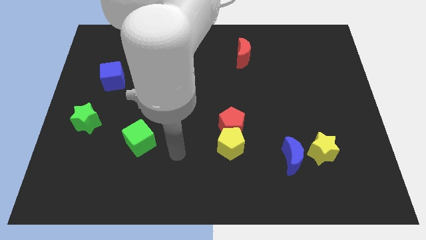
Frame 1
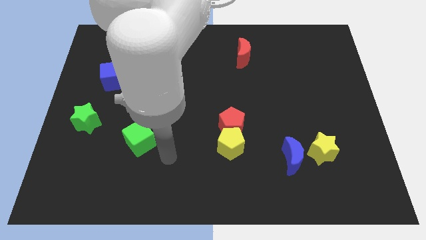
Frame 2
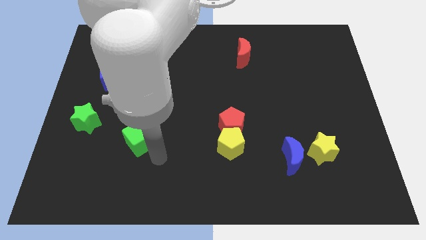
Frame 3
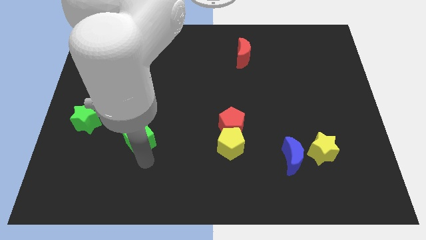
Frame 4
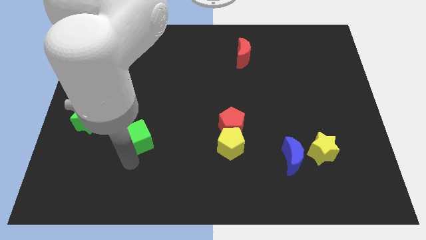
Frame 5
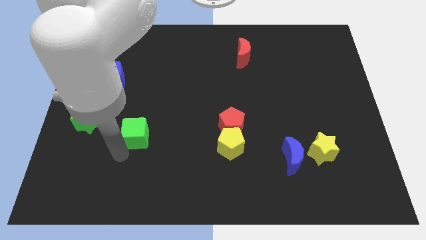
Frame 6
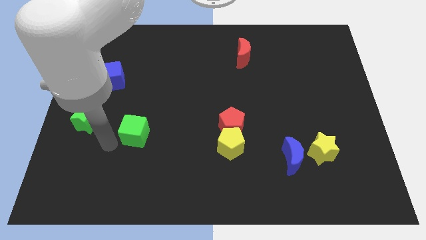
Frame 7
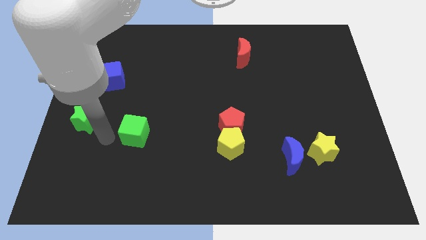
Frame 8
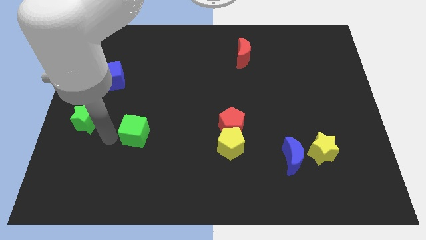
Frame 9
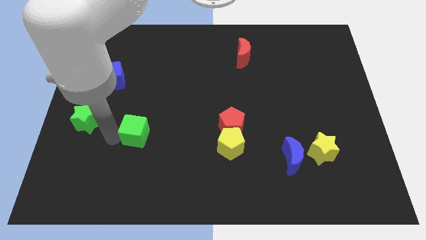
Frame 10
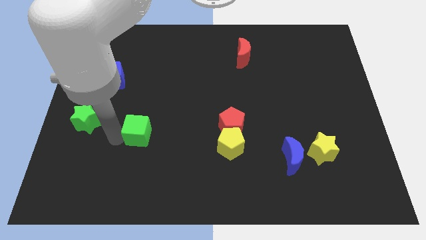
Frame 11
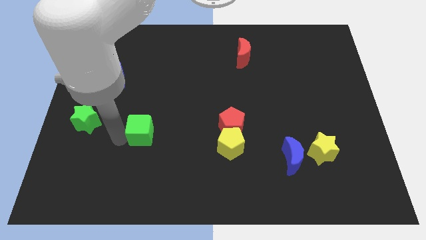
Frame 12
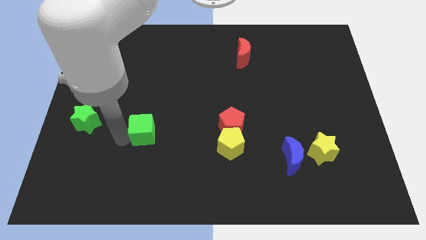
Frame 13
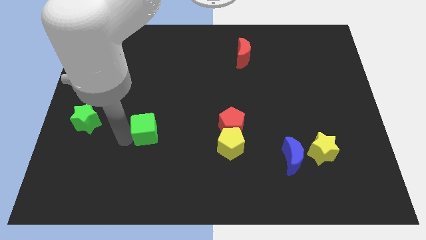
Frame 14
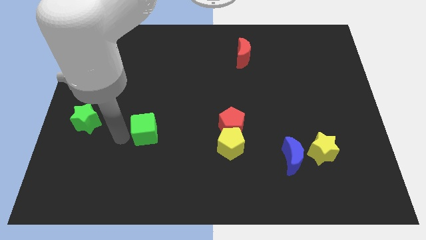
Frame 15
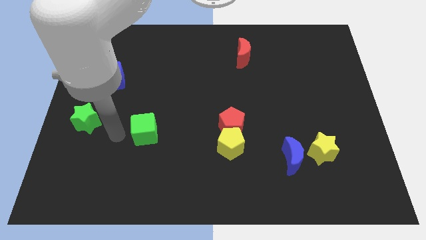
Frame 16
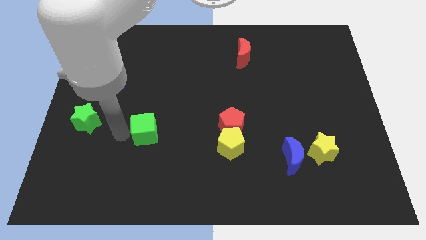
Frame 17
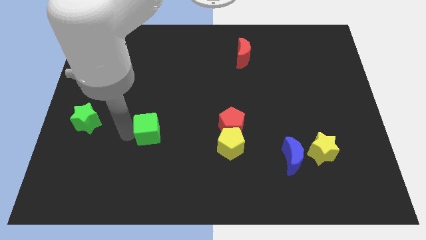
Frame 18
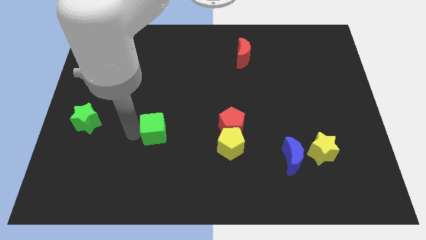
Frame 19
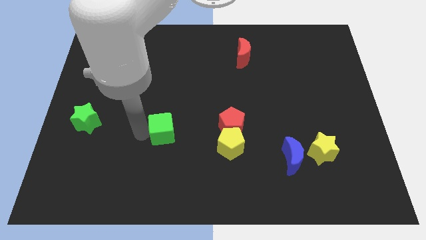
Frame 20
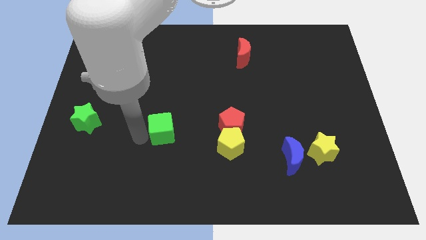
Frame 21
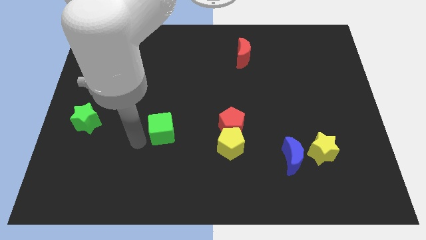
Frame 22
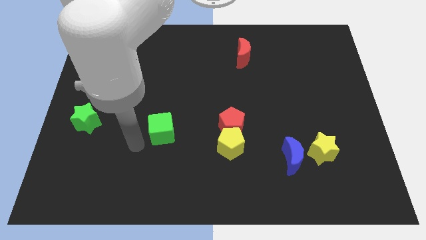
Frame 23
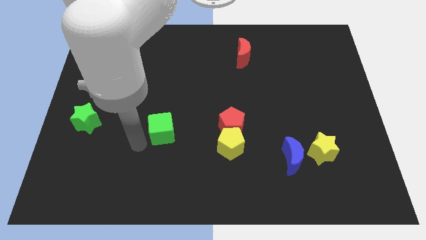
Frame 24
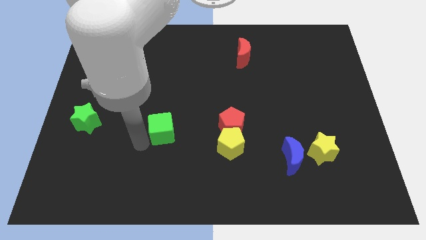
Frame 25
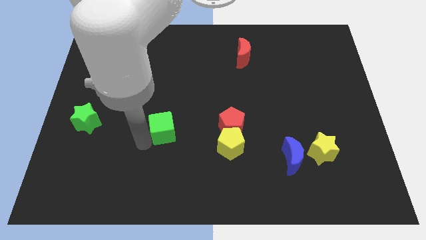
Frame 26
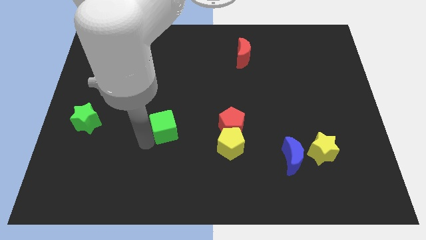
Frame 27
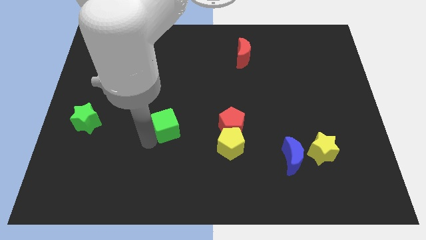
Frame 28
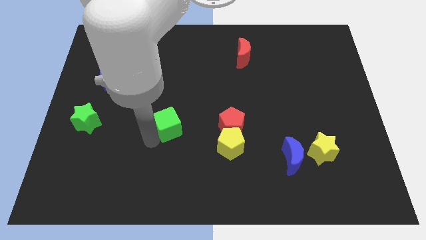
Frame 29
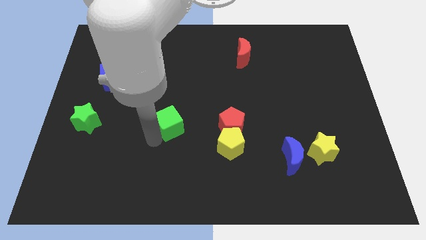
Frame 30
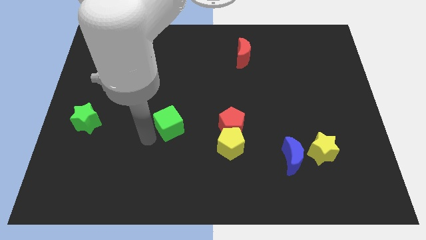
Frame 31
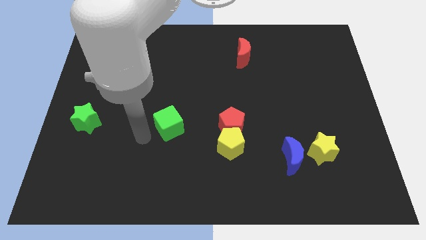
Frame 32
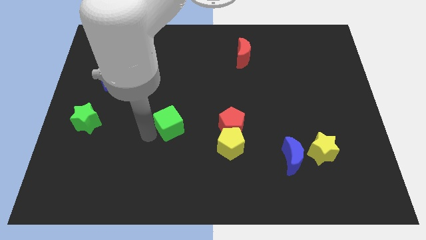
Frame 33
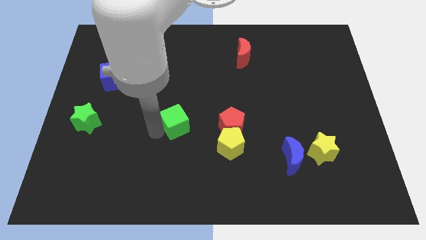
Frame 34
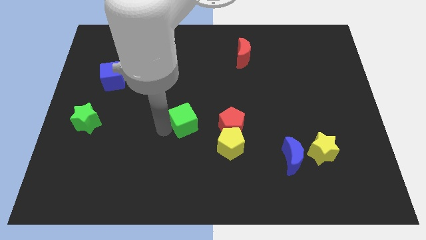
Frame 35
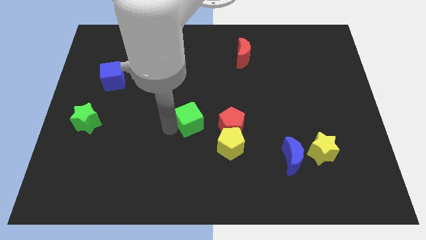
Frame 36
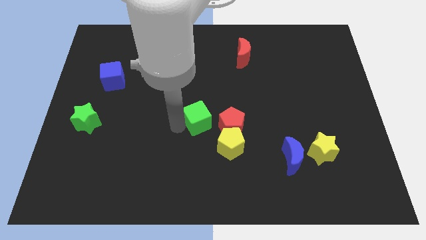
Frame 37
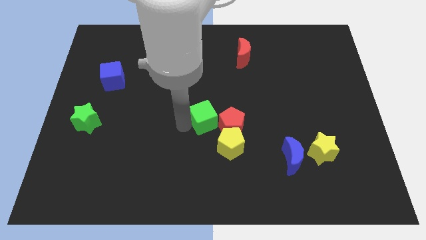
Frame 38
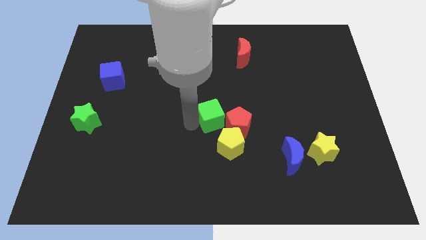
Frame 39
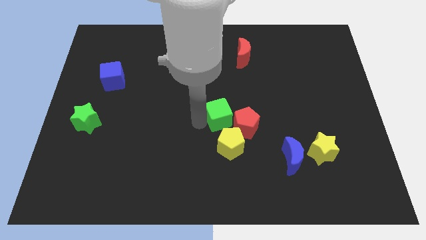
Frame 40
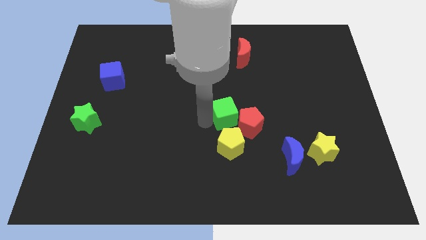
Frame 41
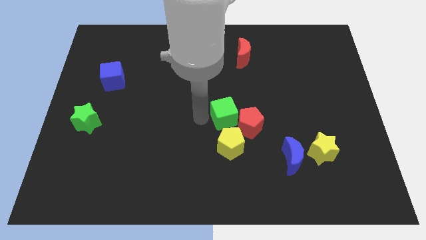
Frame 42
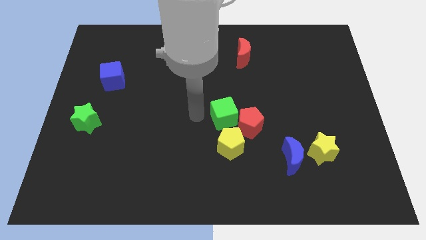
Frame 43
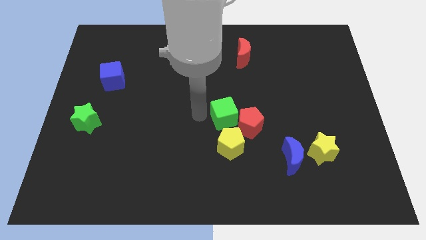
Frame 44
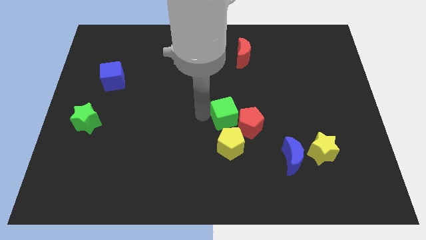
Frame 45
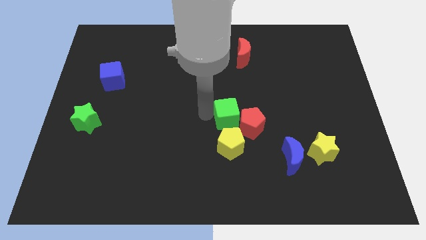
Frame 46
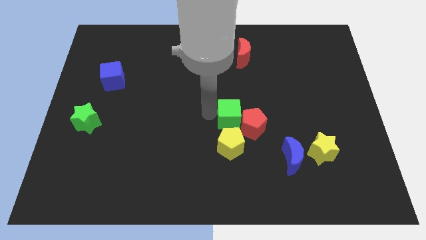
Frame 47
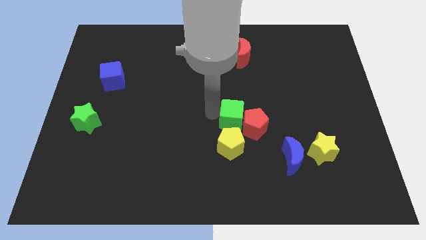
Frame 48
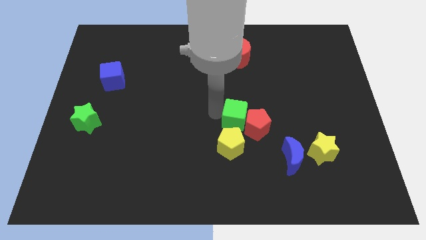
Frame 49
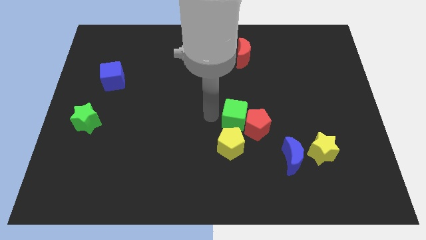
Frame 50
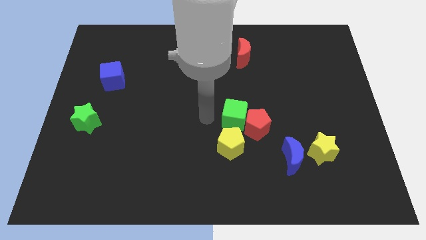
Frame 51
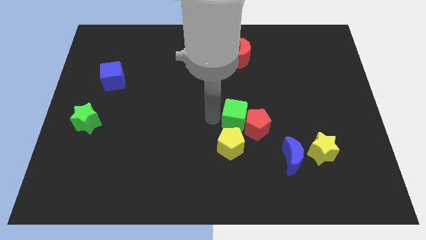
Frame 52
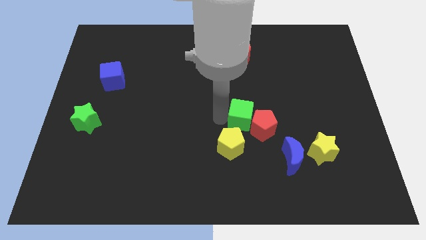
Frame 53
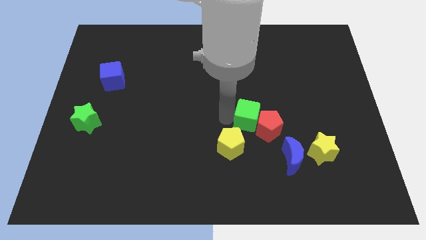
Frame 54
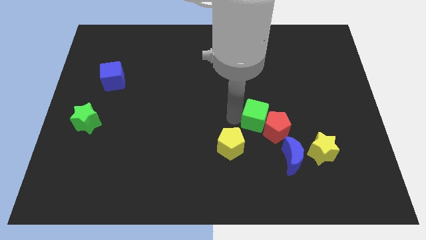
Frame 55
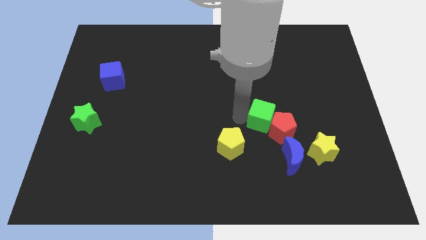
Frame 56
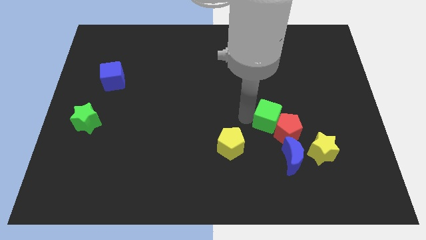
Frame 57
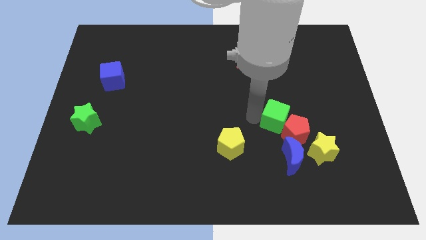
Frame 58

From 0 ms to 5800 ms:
push the green cube diagonally up and to the left of the yellow star

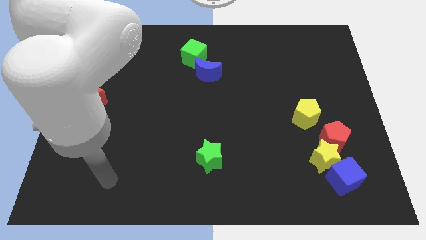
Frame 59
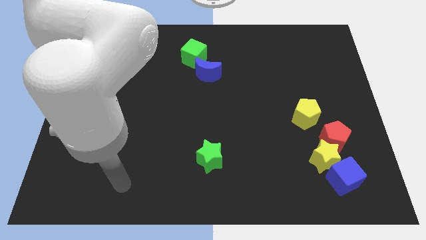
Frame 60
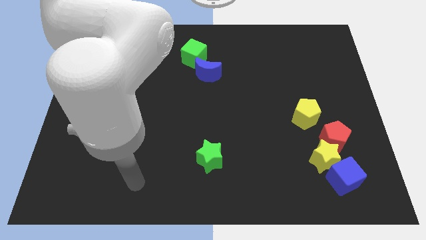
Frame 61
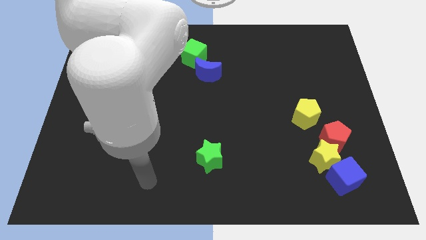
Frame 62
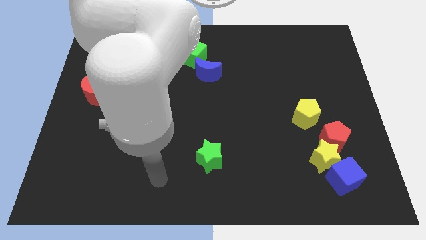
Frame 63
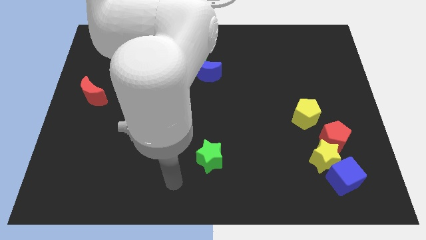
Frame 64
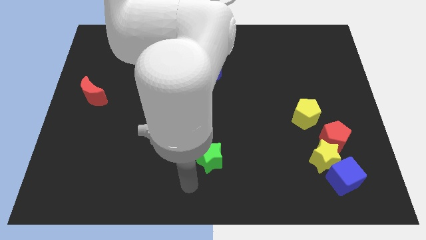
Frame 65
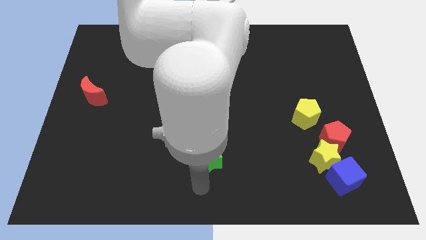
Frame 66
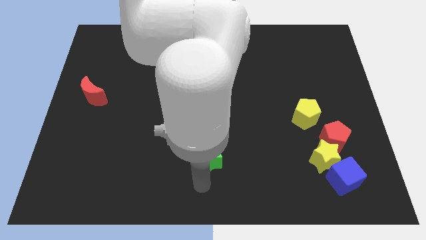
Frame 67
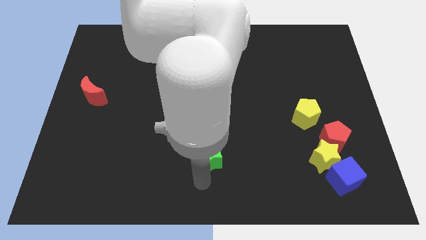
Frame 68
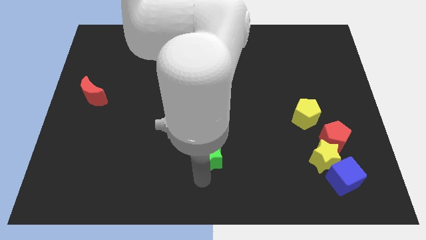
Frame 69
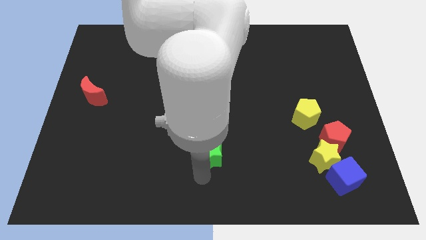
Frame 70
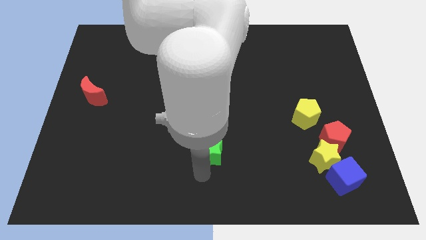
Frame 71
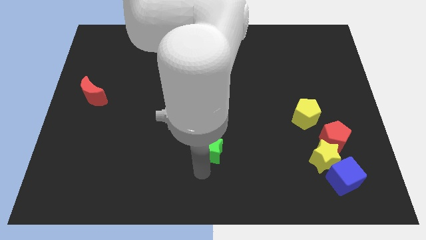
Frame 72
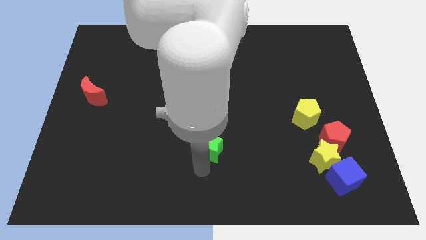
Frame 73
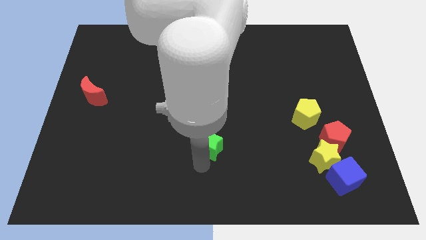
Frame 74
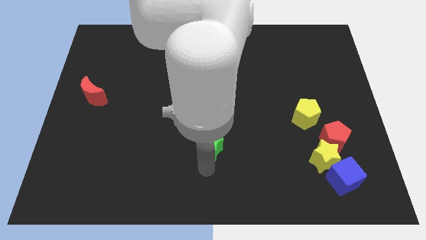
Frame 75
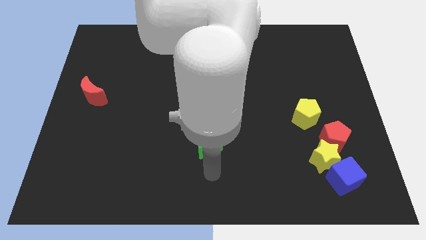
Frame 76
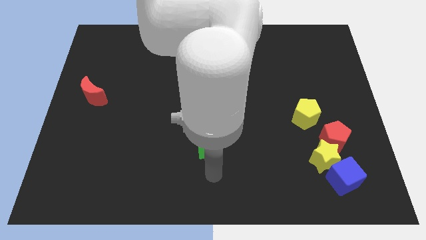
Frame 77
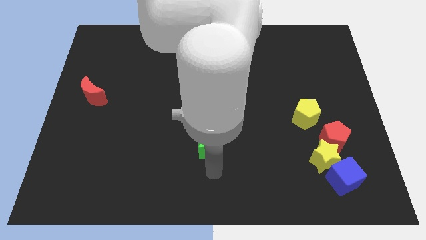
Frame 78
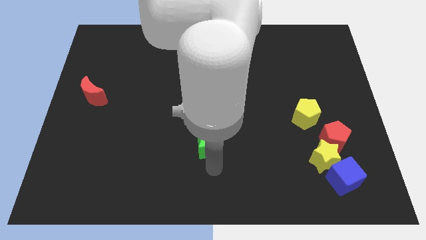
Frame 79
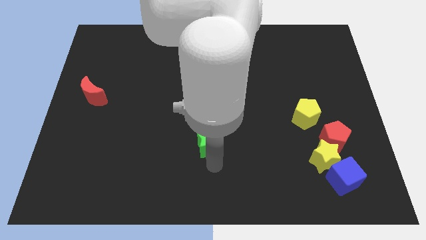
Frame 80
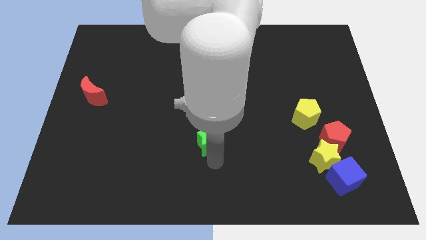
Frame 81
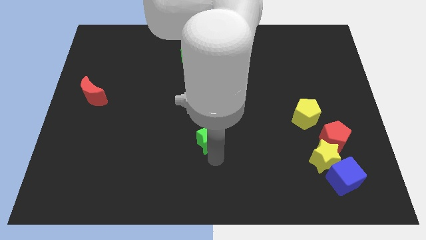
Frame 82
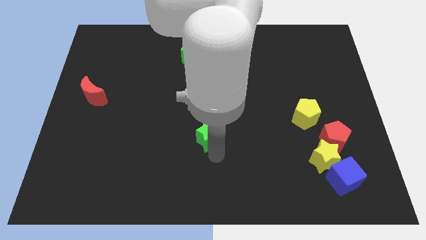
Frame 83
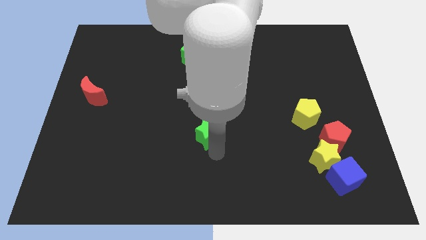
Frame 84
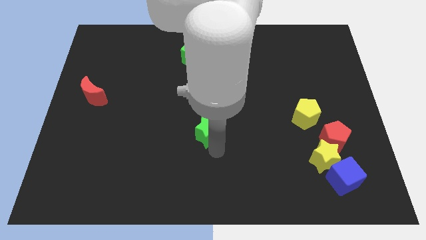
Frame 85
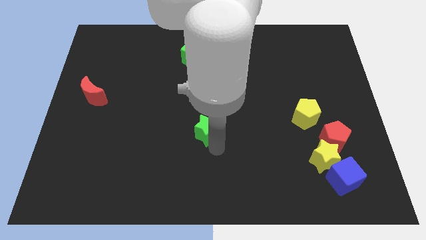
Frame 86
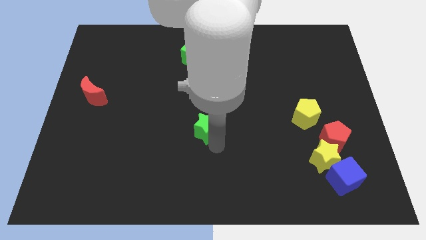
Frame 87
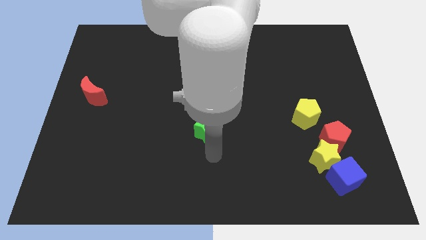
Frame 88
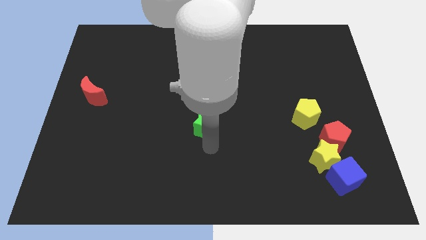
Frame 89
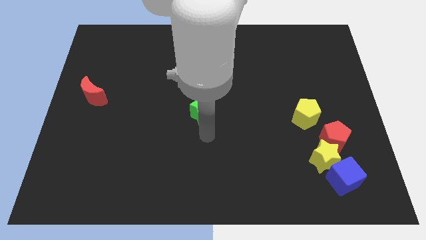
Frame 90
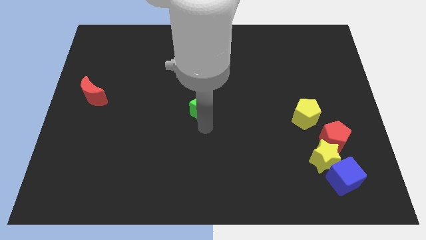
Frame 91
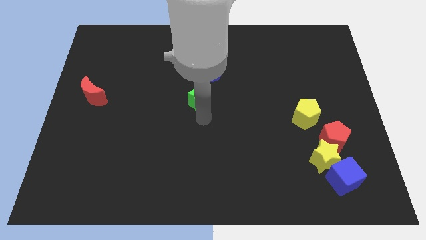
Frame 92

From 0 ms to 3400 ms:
push the green star to the bottom of the green cube
